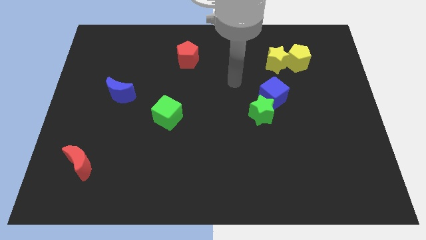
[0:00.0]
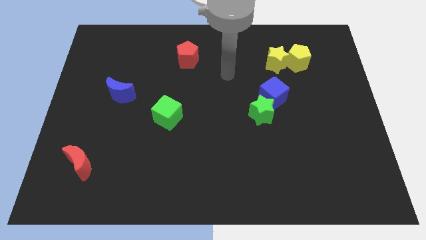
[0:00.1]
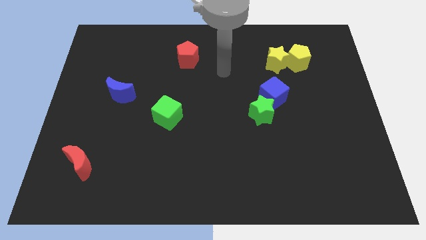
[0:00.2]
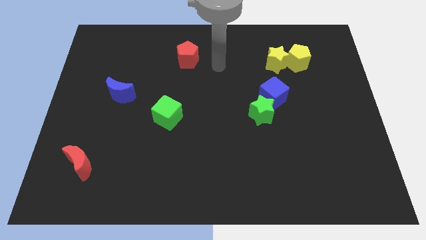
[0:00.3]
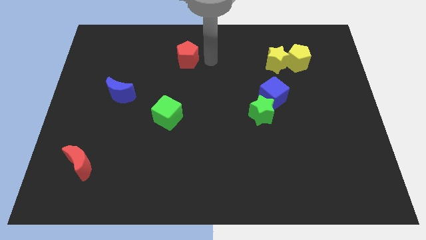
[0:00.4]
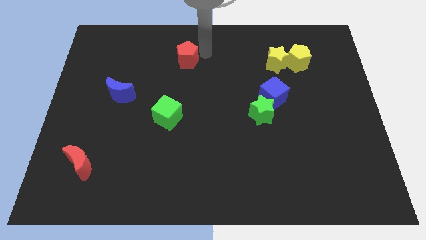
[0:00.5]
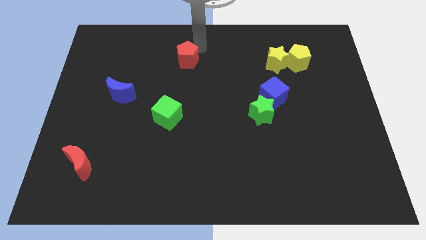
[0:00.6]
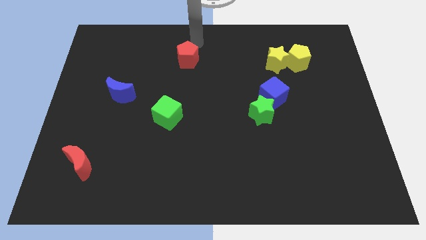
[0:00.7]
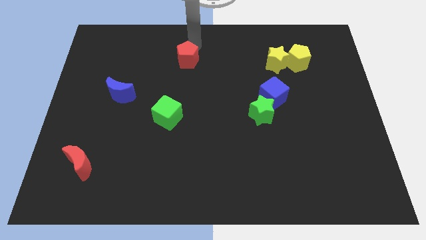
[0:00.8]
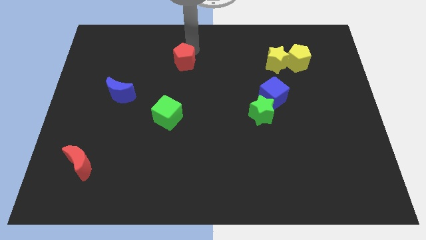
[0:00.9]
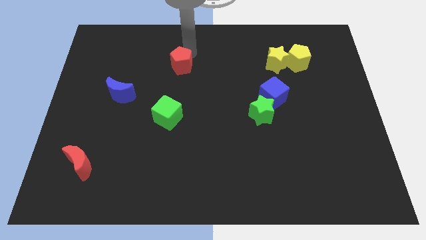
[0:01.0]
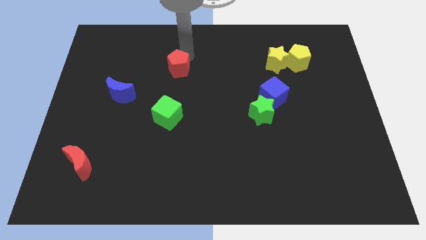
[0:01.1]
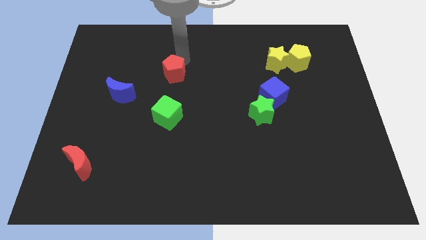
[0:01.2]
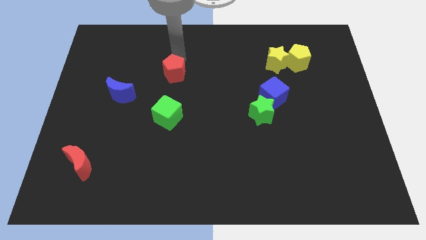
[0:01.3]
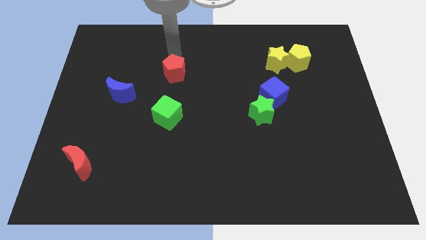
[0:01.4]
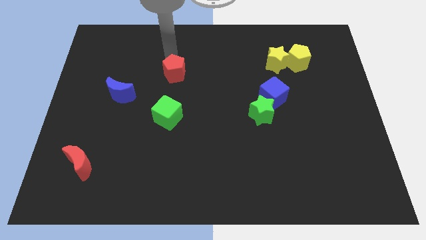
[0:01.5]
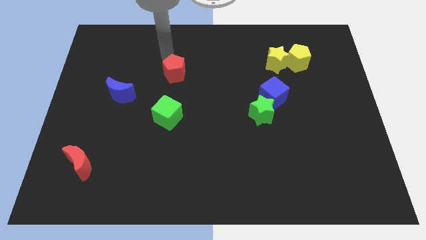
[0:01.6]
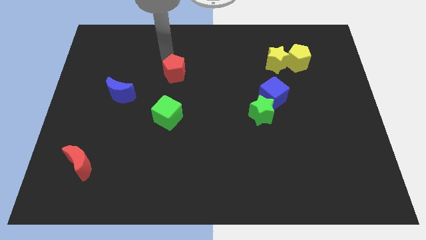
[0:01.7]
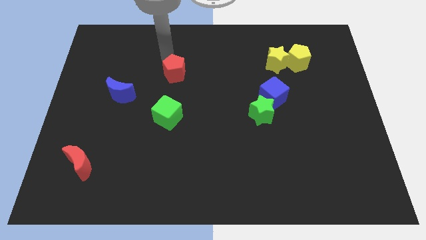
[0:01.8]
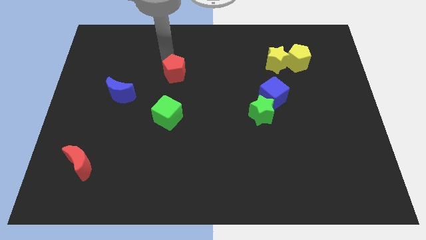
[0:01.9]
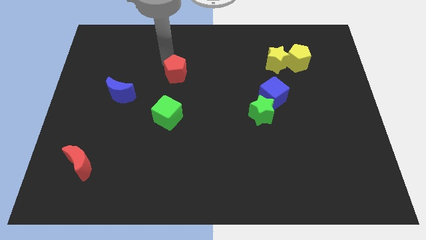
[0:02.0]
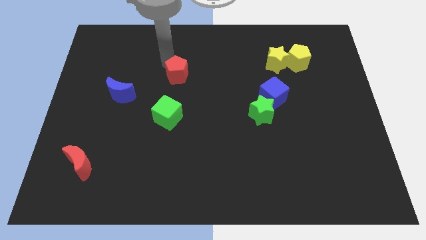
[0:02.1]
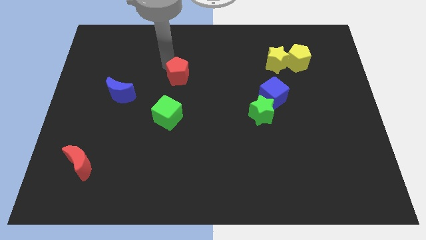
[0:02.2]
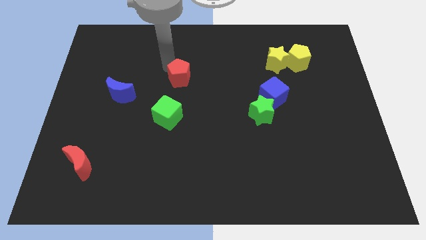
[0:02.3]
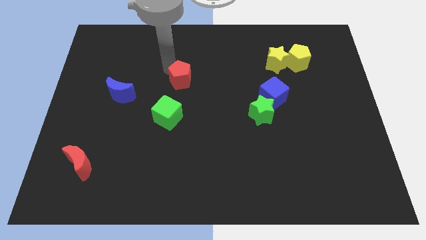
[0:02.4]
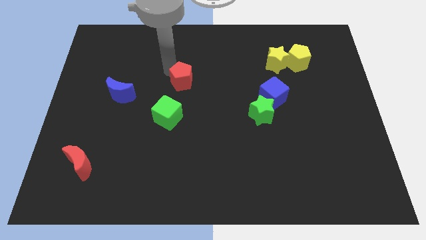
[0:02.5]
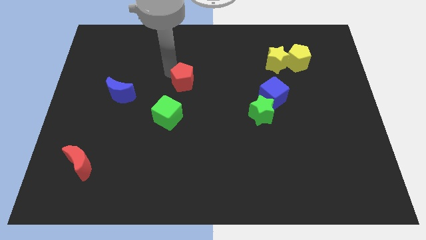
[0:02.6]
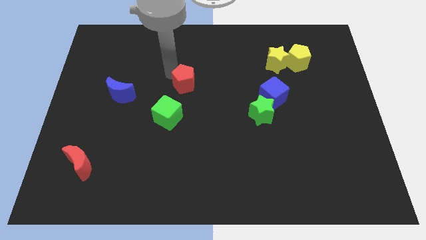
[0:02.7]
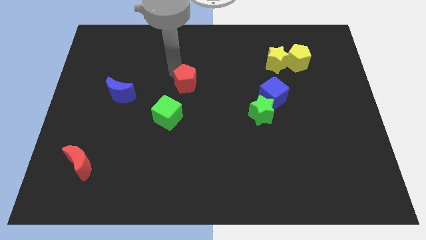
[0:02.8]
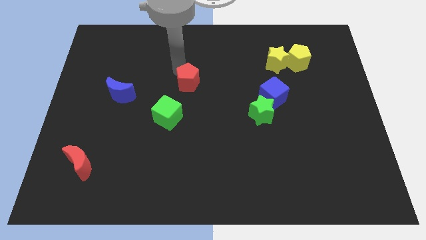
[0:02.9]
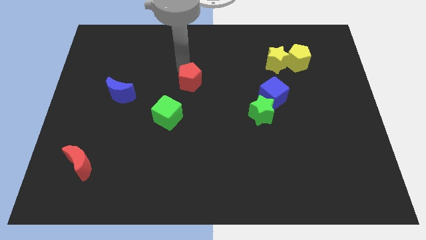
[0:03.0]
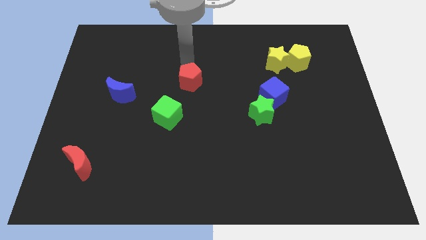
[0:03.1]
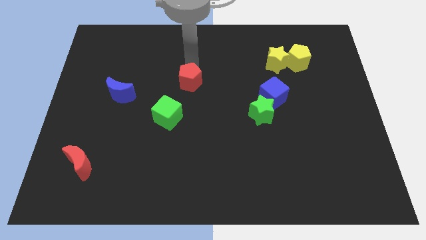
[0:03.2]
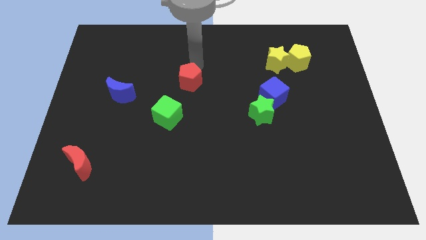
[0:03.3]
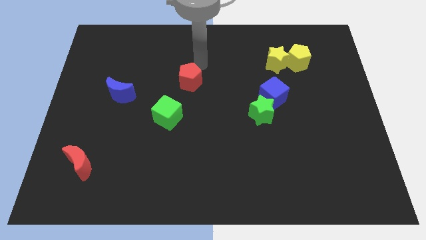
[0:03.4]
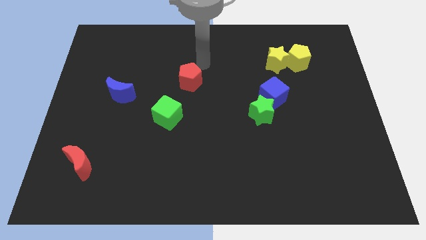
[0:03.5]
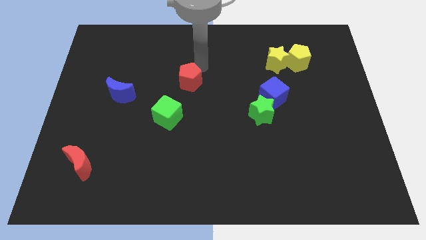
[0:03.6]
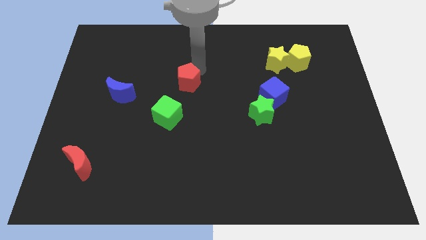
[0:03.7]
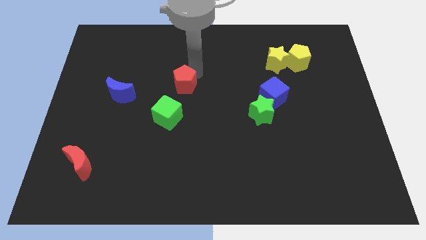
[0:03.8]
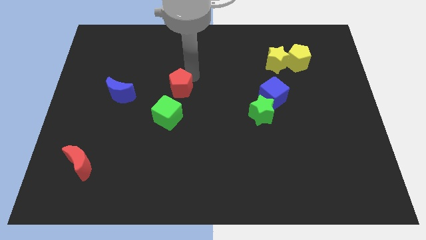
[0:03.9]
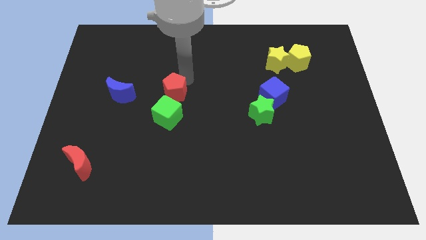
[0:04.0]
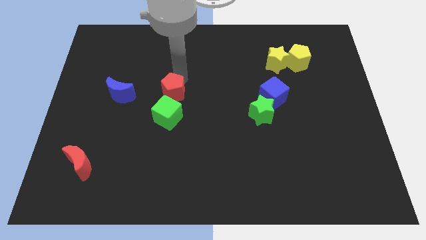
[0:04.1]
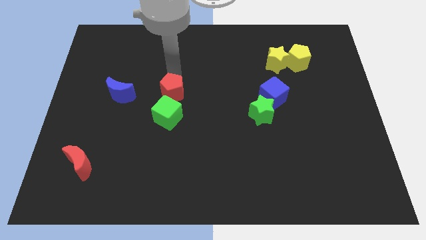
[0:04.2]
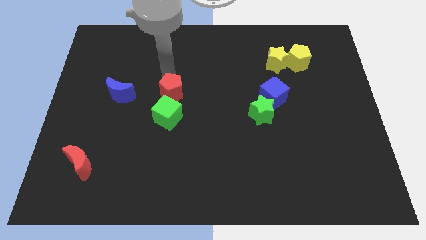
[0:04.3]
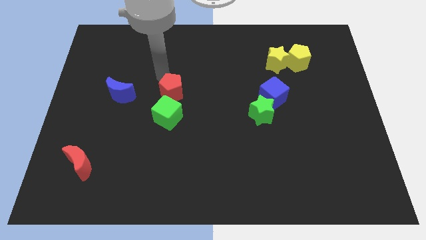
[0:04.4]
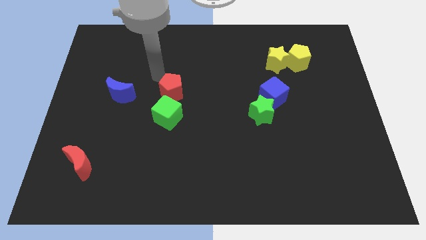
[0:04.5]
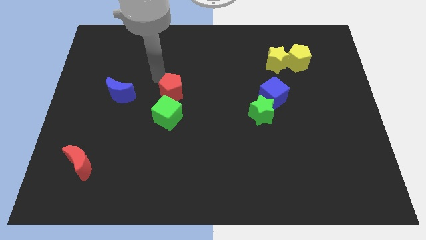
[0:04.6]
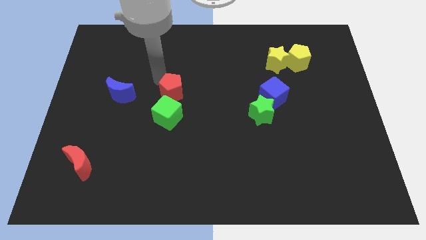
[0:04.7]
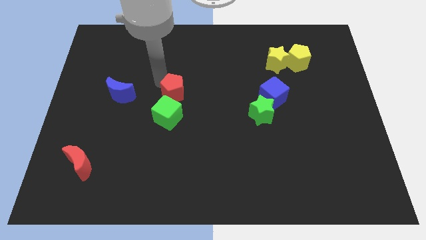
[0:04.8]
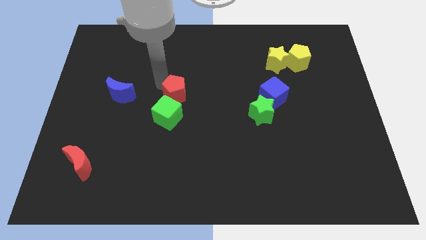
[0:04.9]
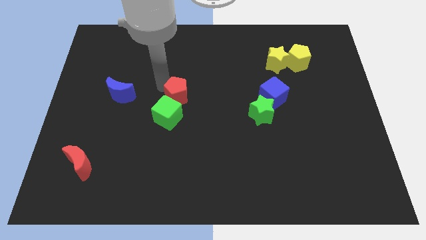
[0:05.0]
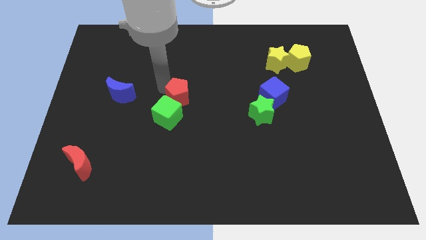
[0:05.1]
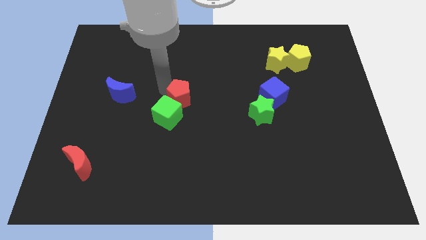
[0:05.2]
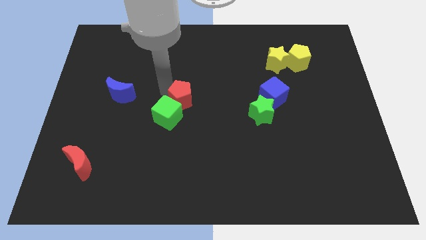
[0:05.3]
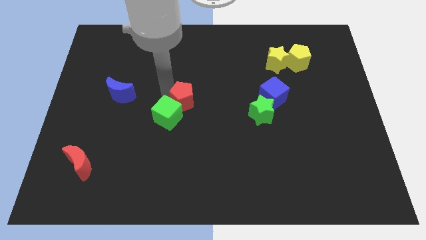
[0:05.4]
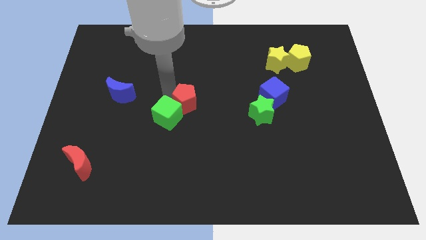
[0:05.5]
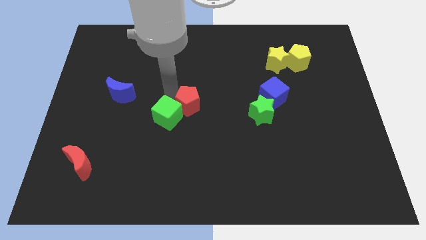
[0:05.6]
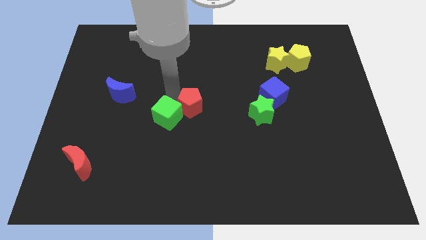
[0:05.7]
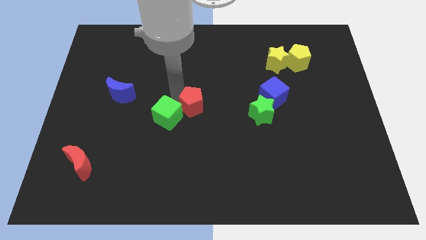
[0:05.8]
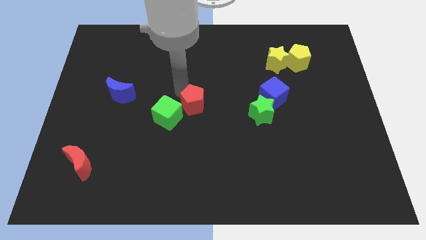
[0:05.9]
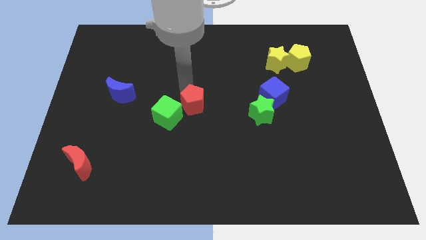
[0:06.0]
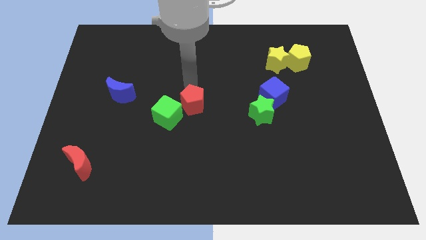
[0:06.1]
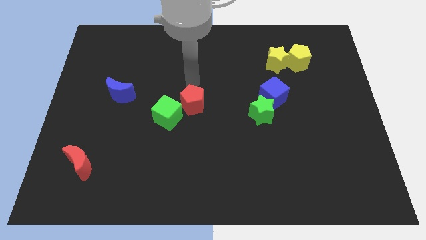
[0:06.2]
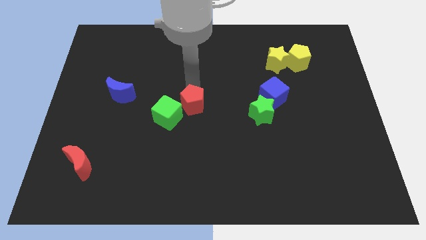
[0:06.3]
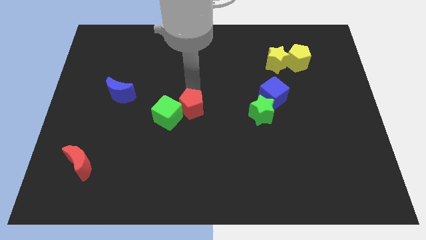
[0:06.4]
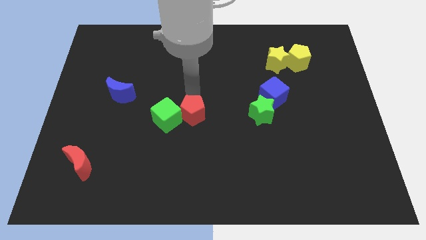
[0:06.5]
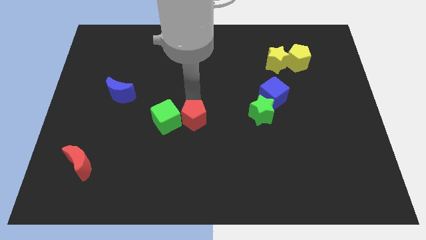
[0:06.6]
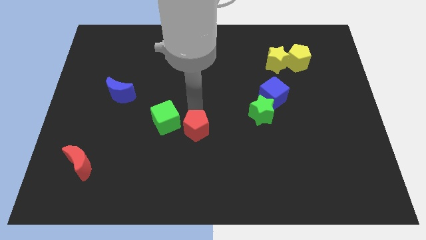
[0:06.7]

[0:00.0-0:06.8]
push the red pentagon down

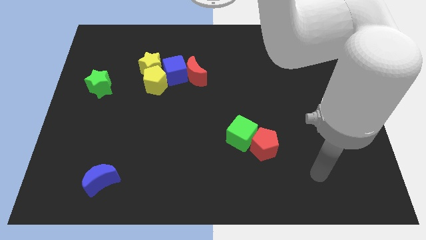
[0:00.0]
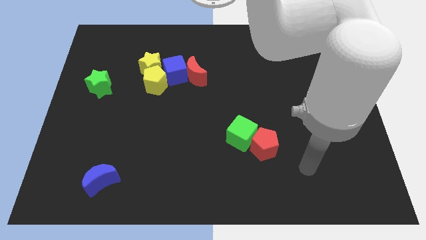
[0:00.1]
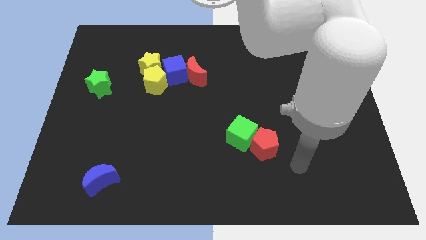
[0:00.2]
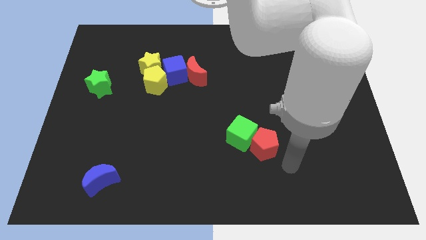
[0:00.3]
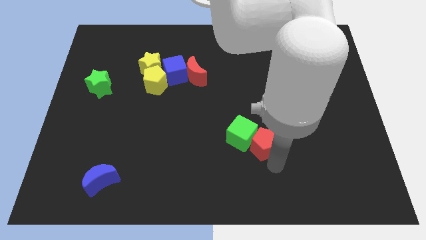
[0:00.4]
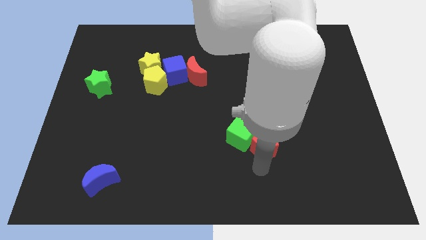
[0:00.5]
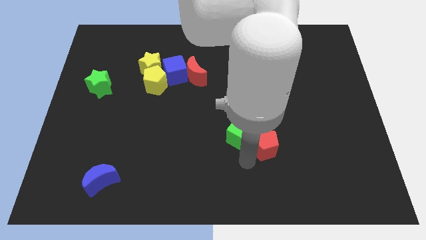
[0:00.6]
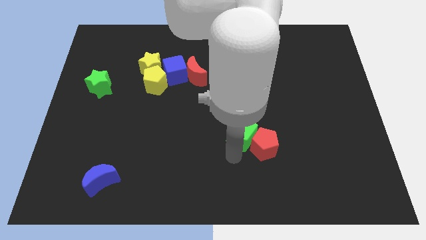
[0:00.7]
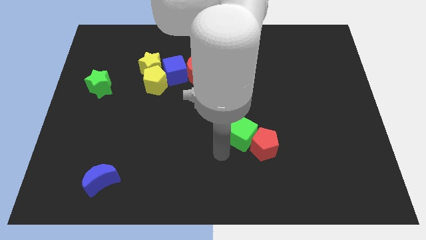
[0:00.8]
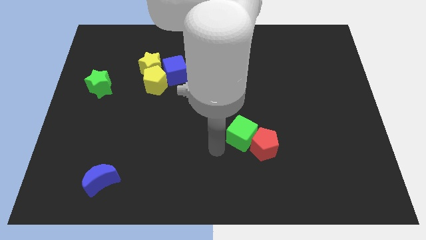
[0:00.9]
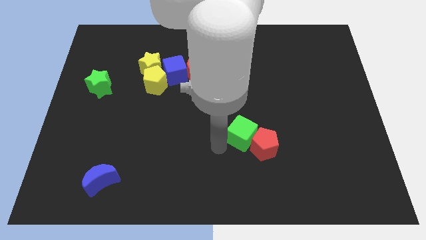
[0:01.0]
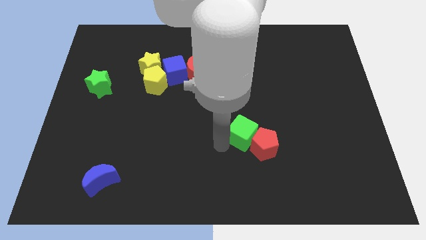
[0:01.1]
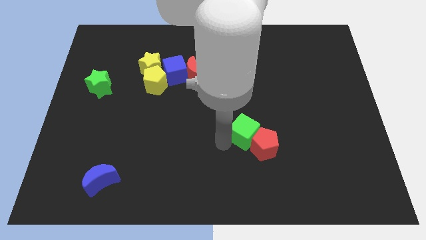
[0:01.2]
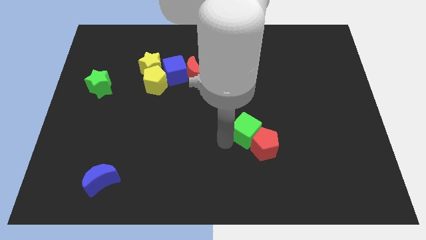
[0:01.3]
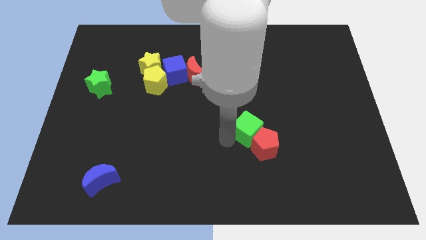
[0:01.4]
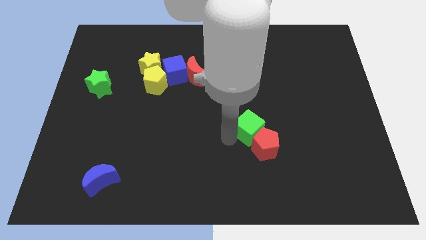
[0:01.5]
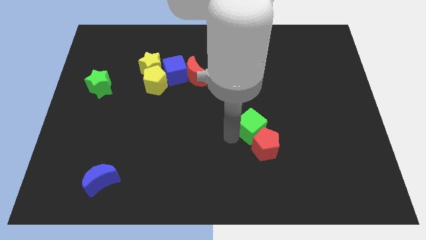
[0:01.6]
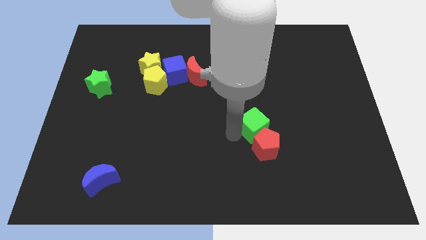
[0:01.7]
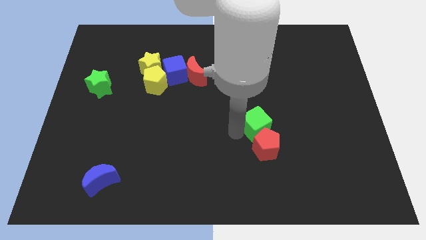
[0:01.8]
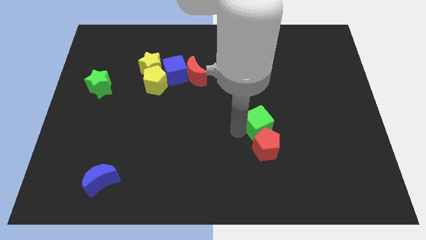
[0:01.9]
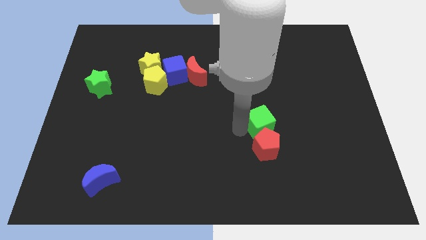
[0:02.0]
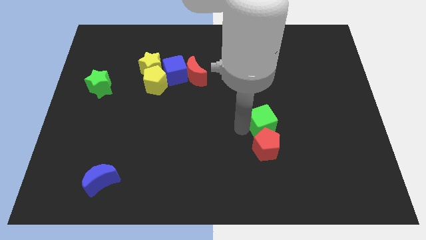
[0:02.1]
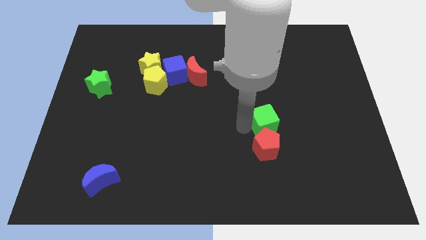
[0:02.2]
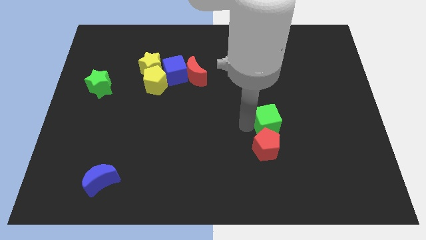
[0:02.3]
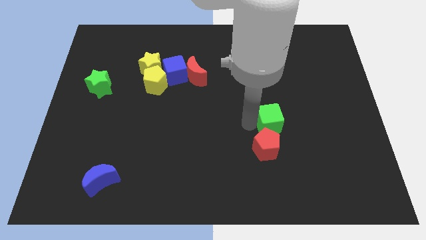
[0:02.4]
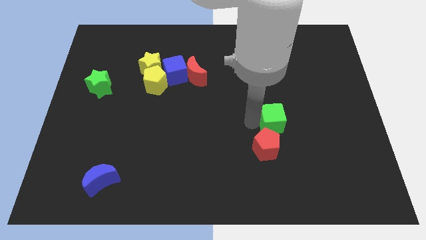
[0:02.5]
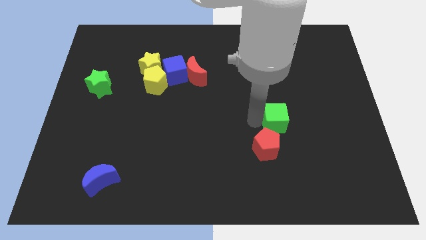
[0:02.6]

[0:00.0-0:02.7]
slightly slide the green cube to the right
